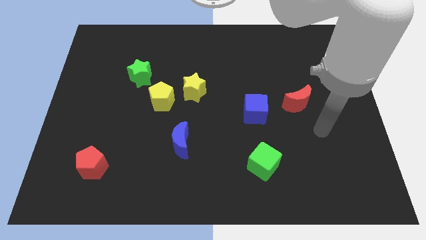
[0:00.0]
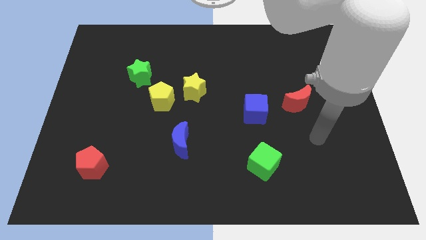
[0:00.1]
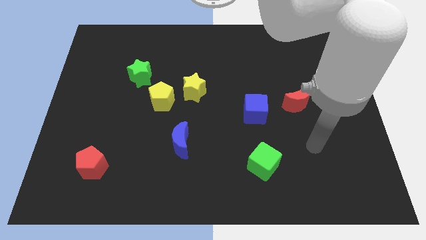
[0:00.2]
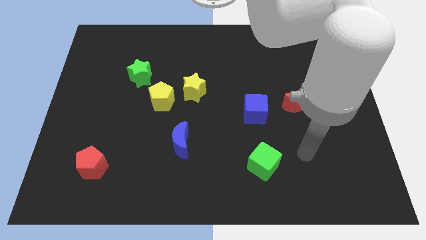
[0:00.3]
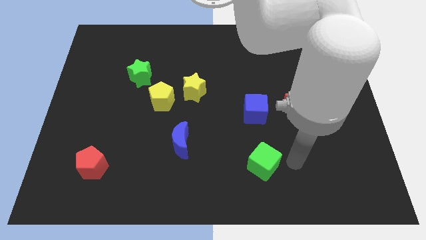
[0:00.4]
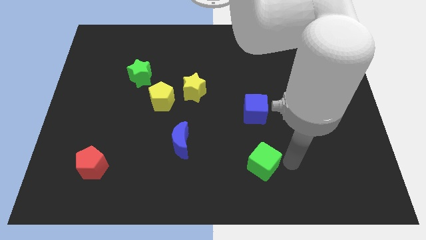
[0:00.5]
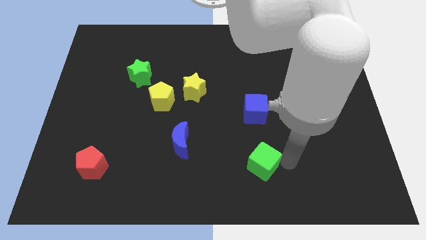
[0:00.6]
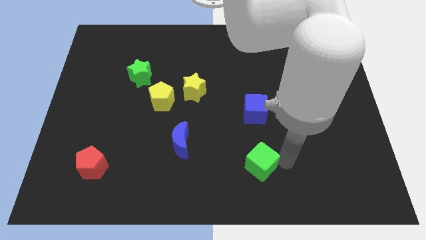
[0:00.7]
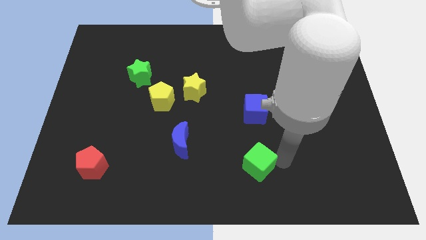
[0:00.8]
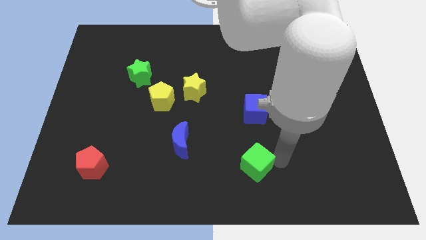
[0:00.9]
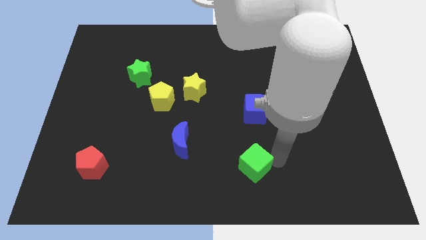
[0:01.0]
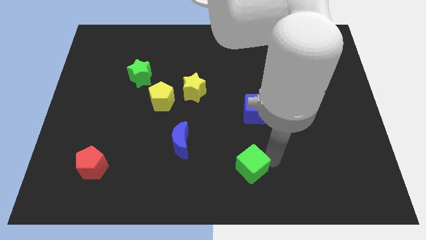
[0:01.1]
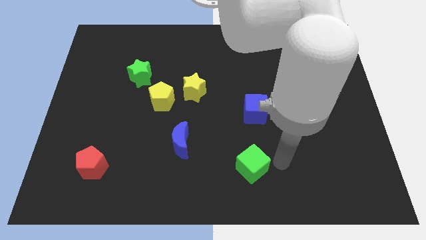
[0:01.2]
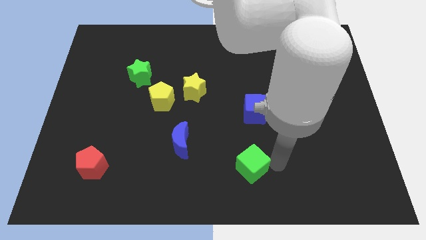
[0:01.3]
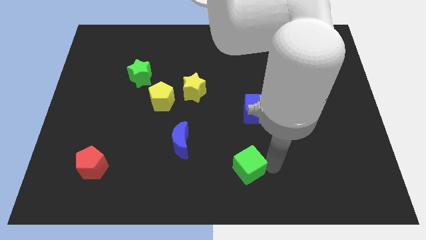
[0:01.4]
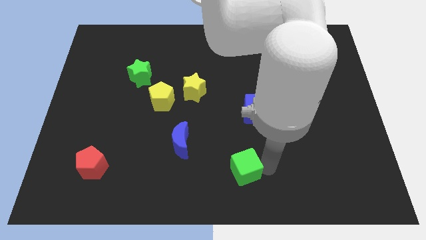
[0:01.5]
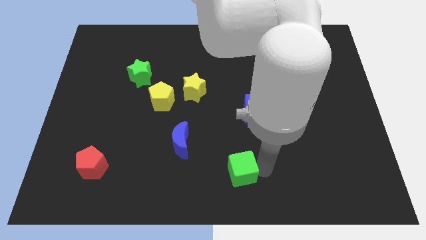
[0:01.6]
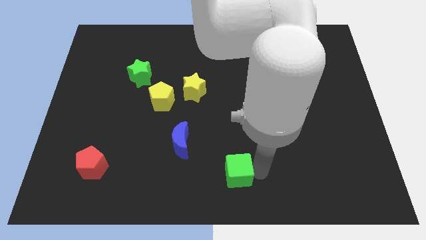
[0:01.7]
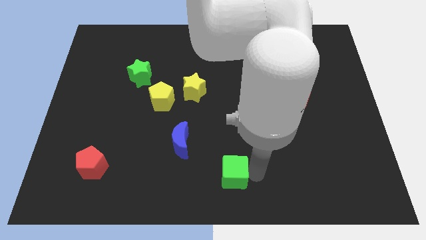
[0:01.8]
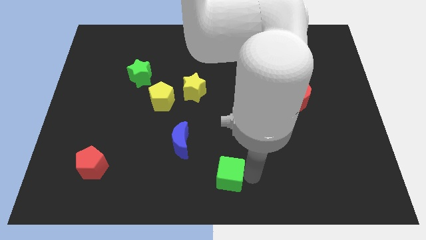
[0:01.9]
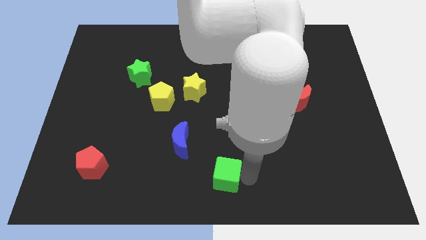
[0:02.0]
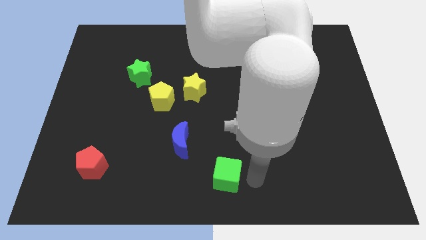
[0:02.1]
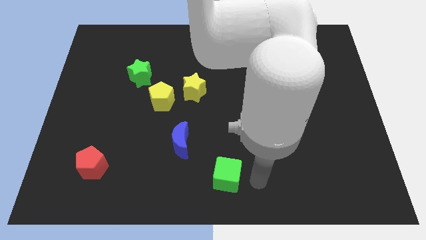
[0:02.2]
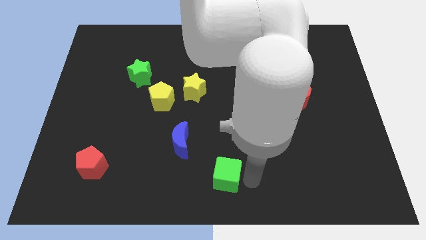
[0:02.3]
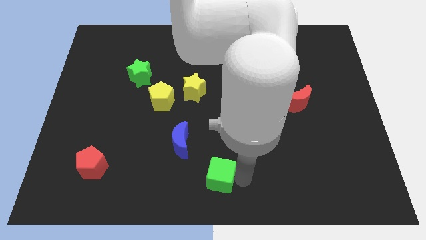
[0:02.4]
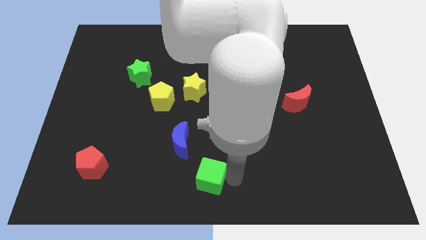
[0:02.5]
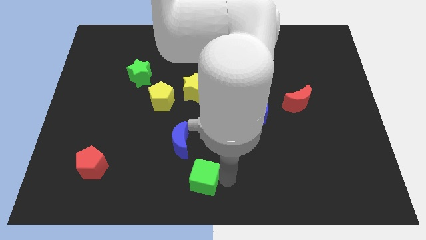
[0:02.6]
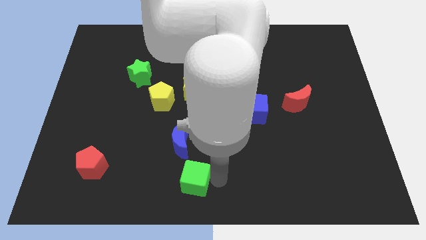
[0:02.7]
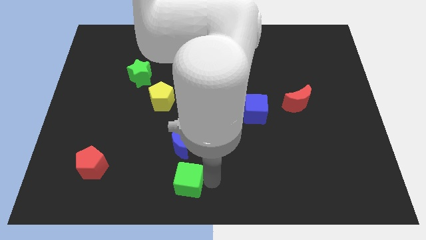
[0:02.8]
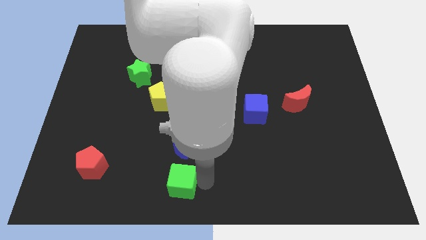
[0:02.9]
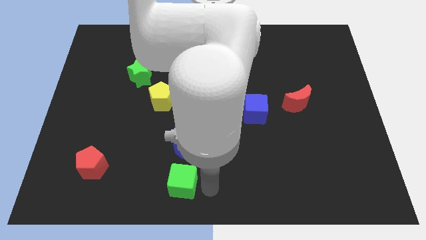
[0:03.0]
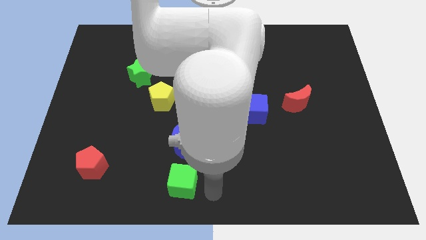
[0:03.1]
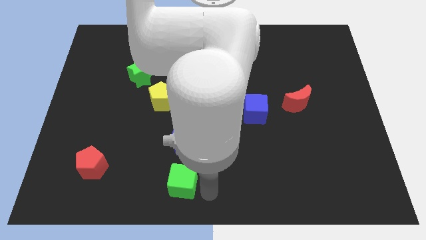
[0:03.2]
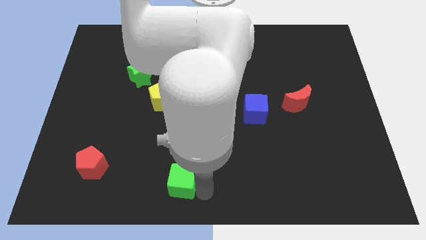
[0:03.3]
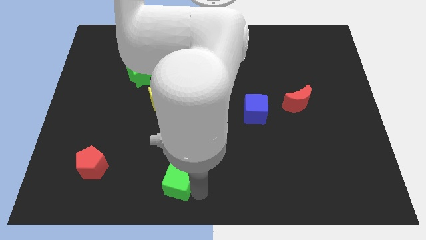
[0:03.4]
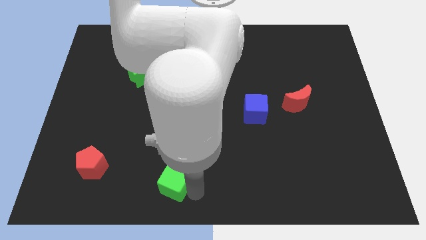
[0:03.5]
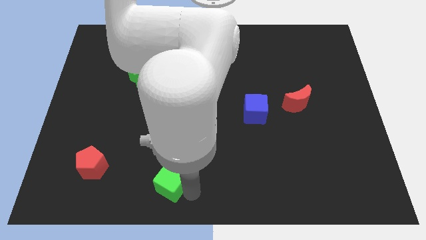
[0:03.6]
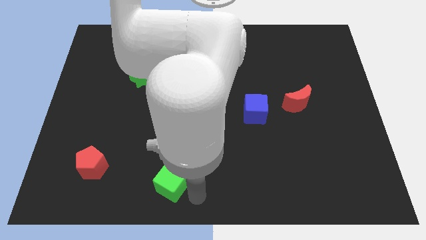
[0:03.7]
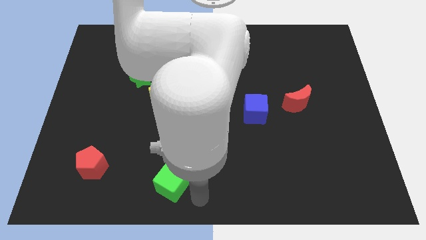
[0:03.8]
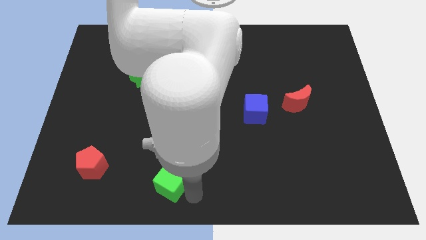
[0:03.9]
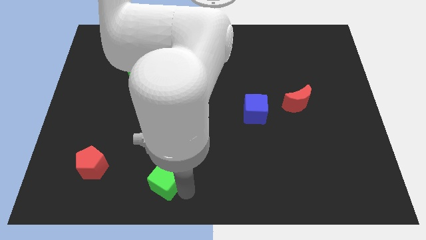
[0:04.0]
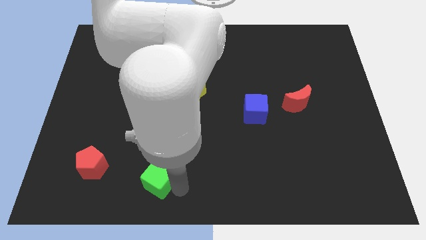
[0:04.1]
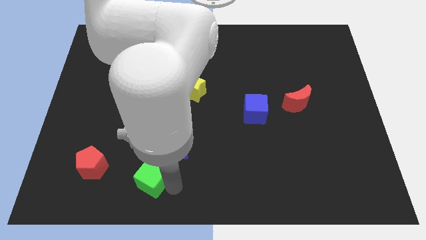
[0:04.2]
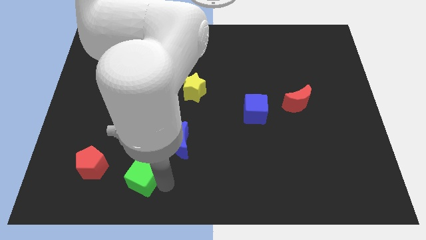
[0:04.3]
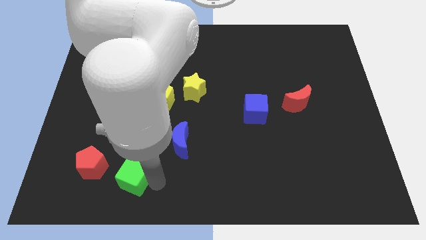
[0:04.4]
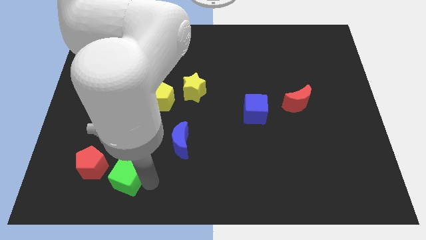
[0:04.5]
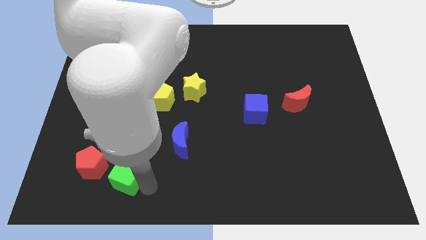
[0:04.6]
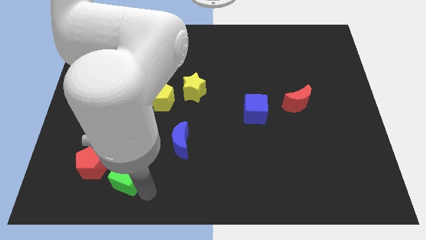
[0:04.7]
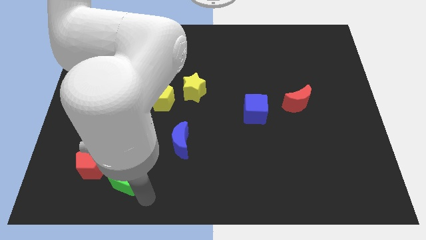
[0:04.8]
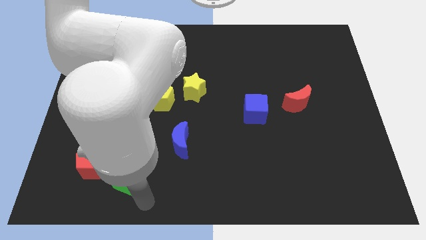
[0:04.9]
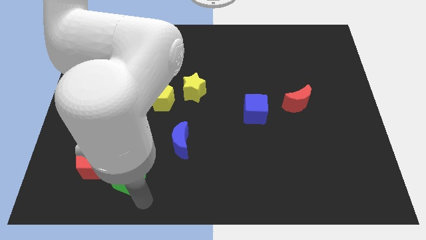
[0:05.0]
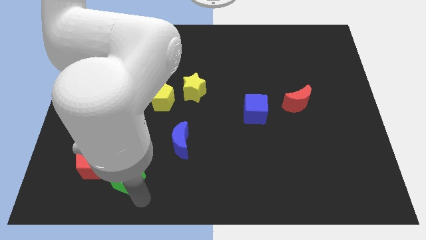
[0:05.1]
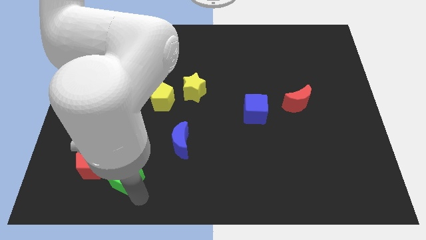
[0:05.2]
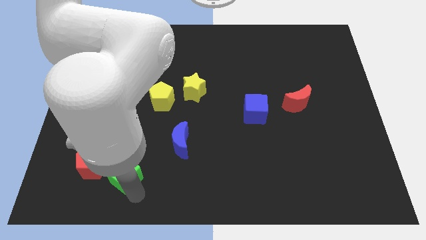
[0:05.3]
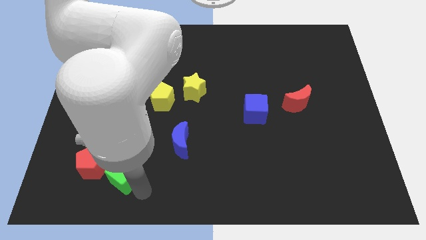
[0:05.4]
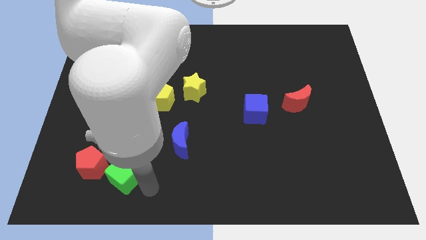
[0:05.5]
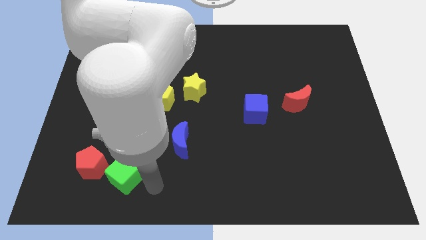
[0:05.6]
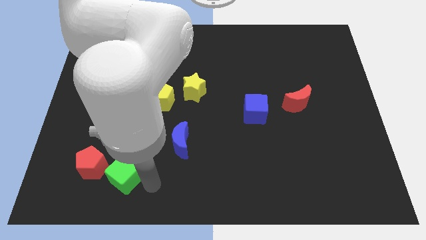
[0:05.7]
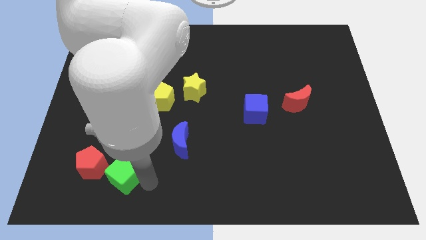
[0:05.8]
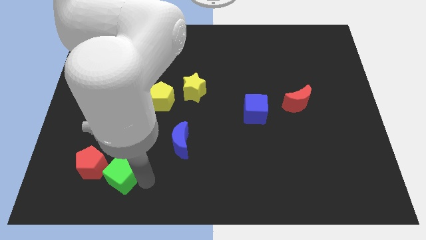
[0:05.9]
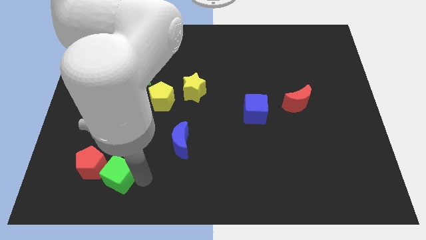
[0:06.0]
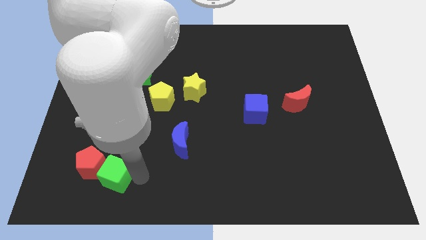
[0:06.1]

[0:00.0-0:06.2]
push the green cube towards the red pentagon
